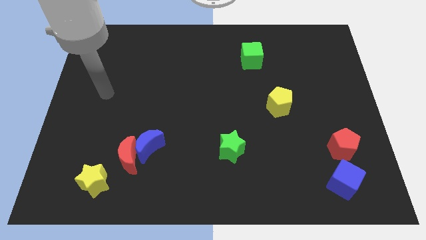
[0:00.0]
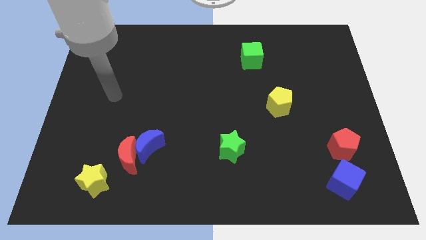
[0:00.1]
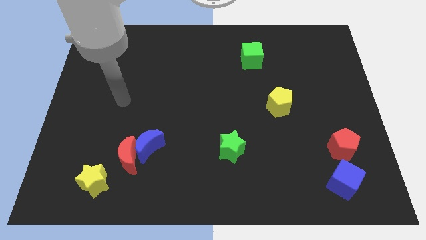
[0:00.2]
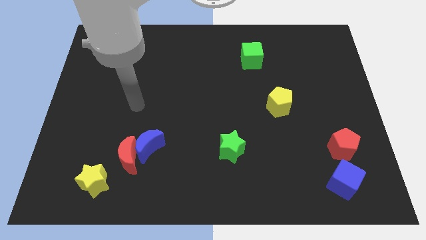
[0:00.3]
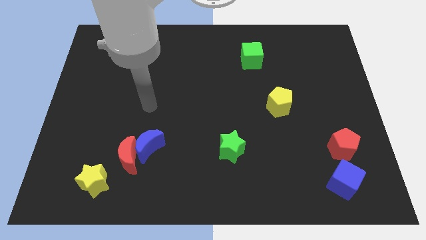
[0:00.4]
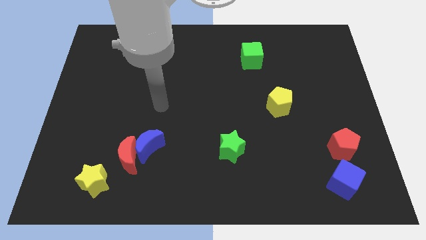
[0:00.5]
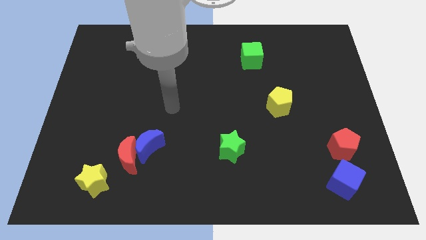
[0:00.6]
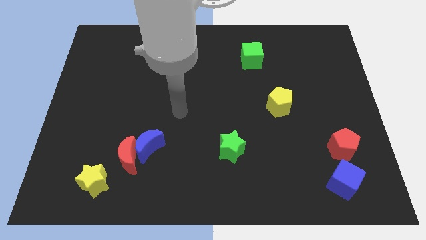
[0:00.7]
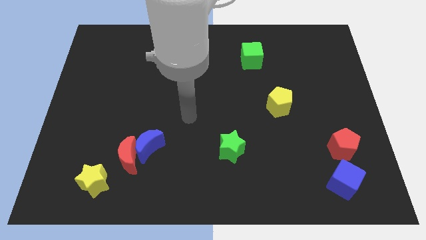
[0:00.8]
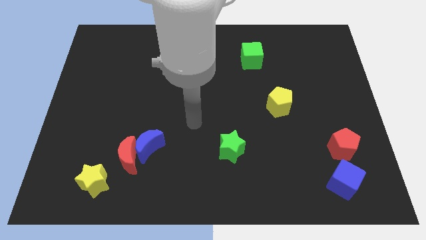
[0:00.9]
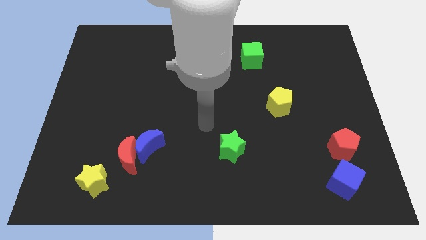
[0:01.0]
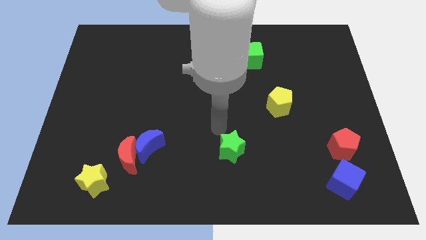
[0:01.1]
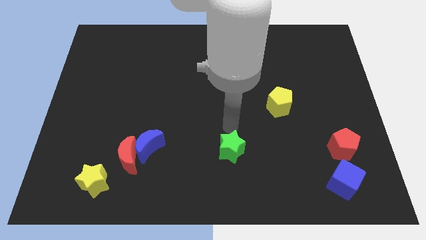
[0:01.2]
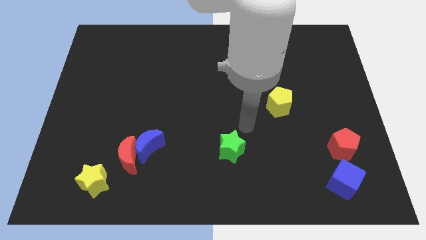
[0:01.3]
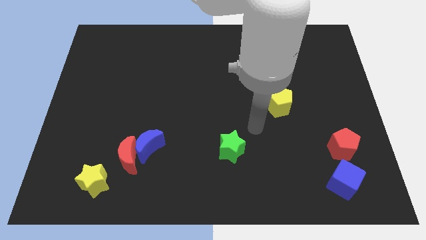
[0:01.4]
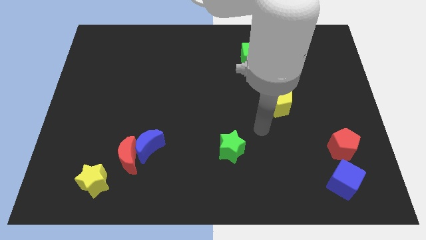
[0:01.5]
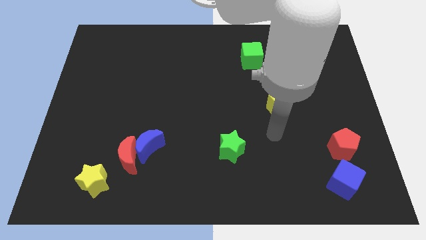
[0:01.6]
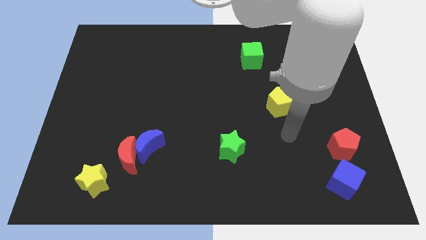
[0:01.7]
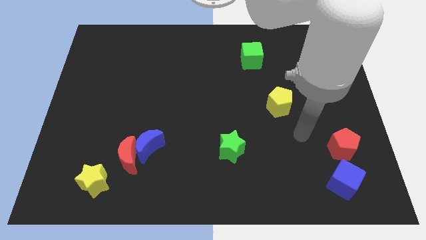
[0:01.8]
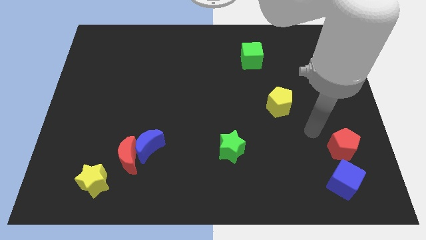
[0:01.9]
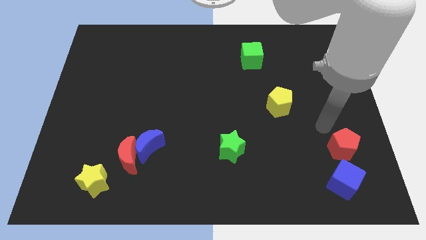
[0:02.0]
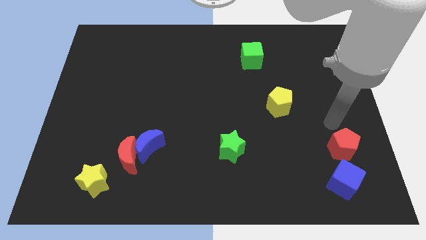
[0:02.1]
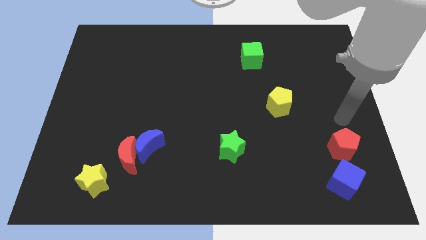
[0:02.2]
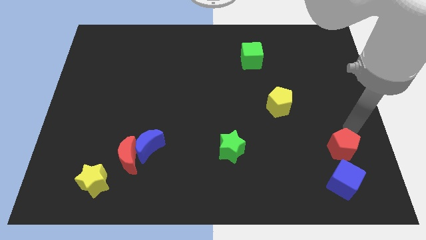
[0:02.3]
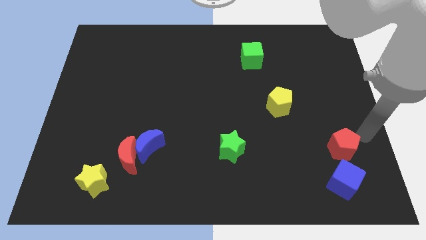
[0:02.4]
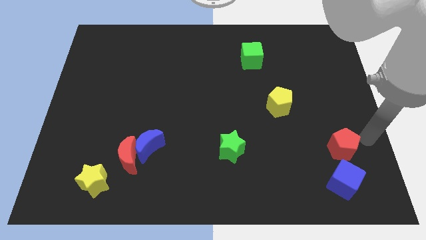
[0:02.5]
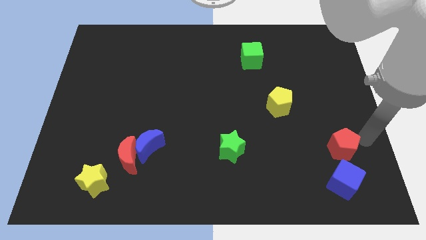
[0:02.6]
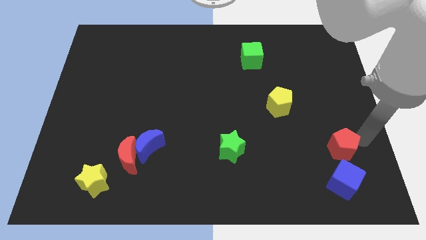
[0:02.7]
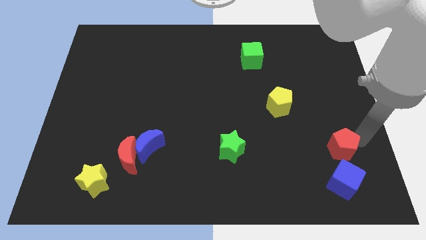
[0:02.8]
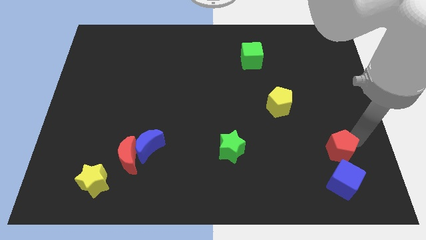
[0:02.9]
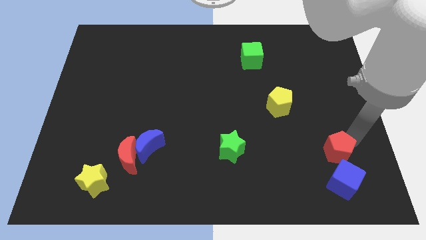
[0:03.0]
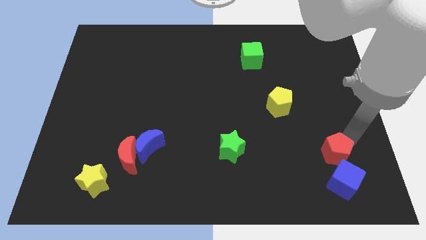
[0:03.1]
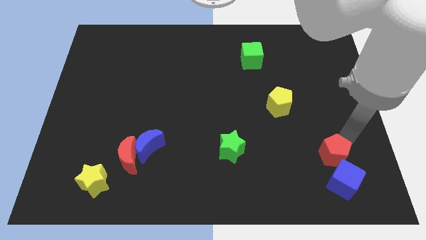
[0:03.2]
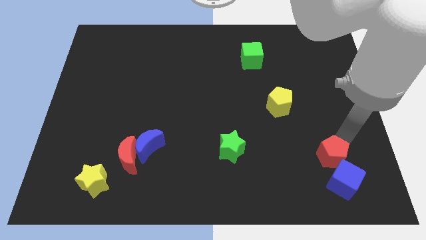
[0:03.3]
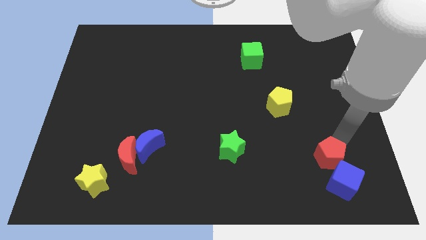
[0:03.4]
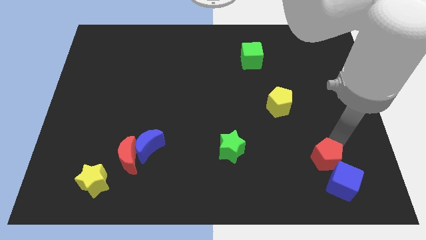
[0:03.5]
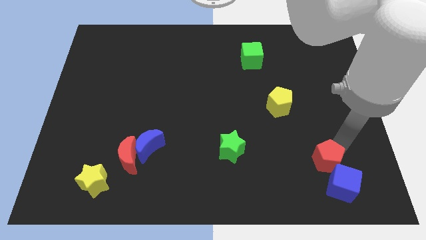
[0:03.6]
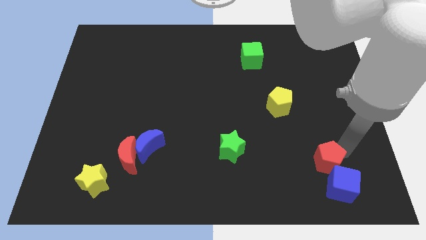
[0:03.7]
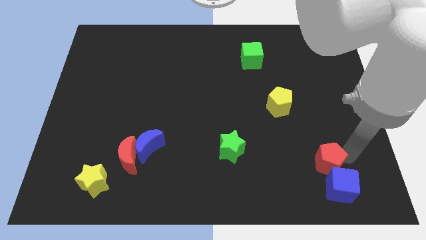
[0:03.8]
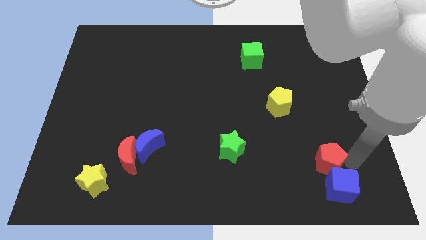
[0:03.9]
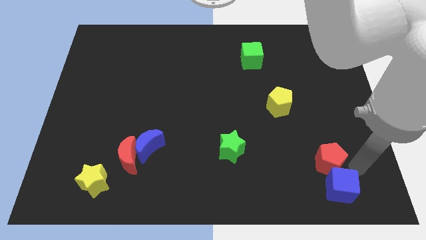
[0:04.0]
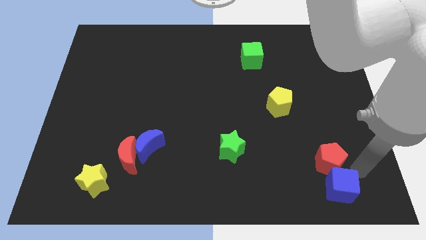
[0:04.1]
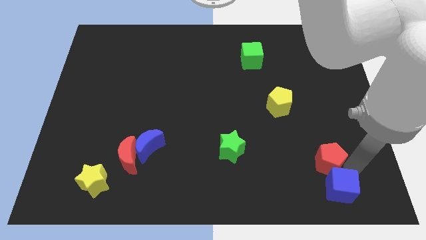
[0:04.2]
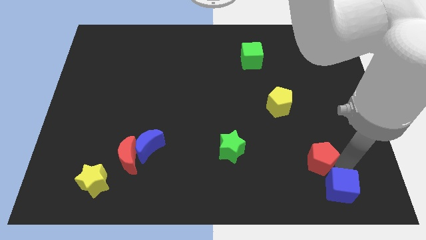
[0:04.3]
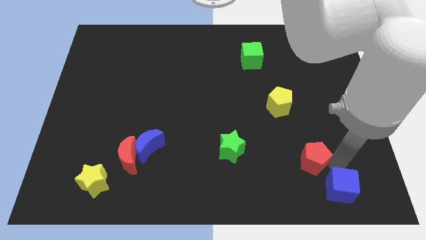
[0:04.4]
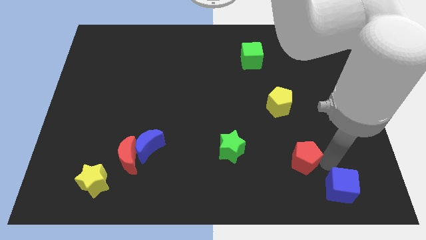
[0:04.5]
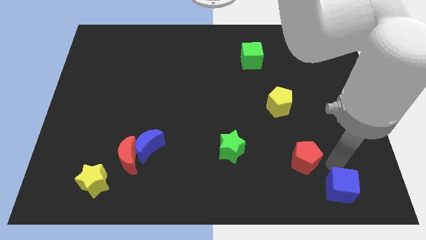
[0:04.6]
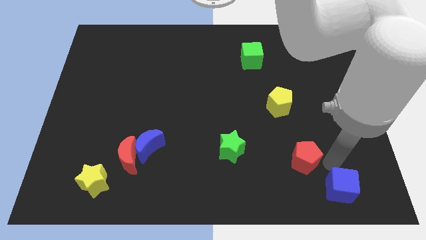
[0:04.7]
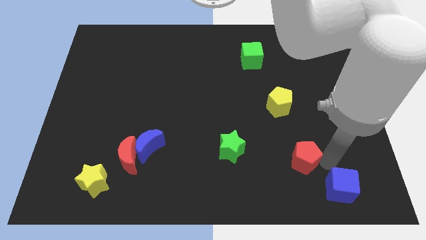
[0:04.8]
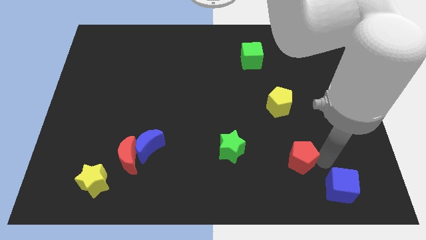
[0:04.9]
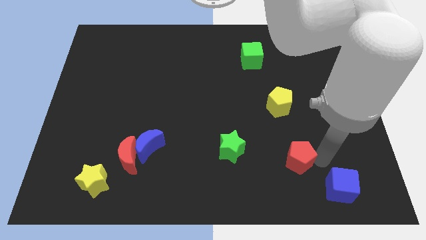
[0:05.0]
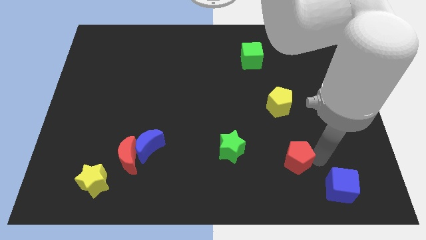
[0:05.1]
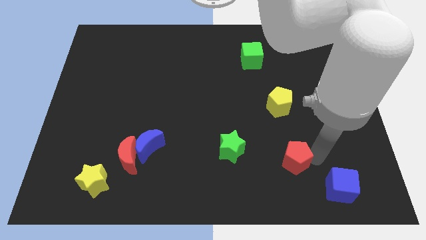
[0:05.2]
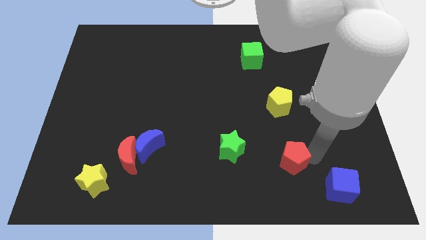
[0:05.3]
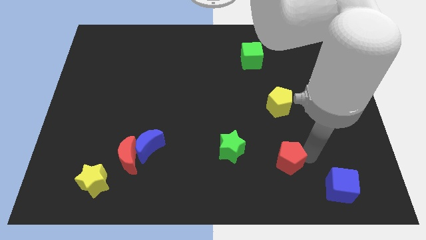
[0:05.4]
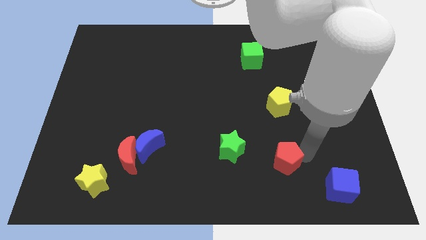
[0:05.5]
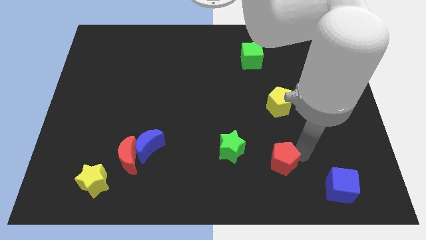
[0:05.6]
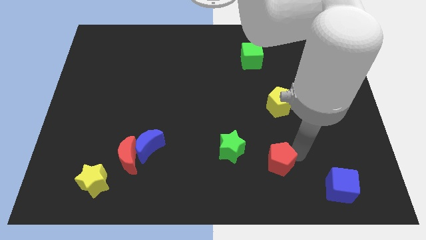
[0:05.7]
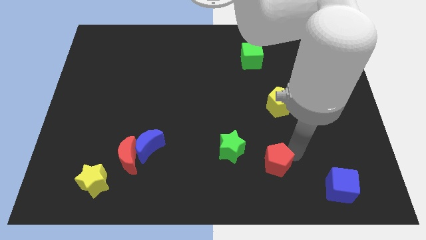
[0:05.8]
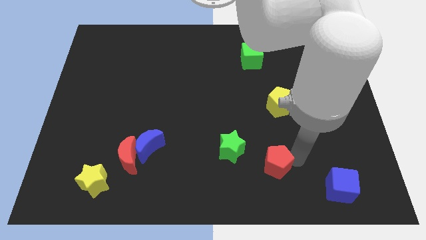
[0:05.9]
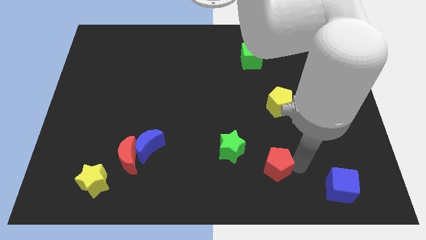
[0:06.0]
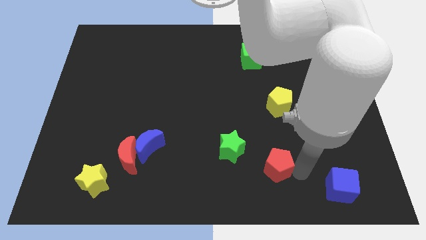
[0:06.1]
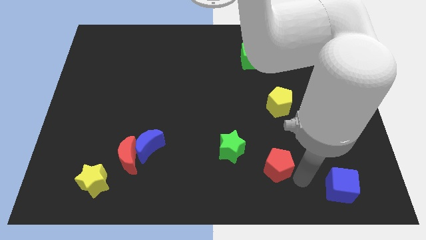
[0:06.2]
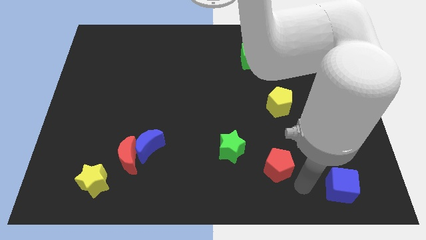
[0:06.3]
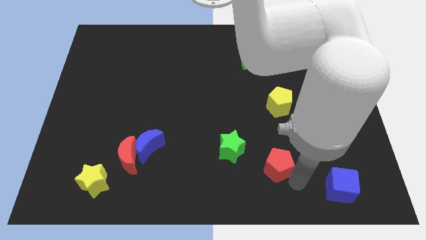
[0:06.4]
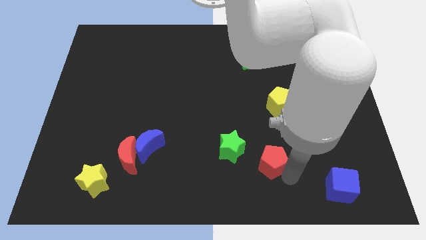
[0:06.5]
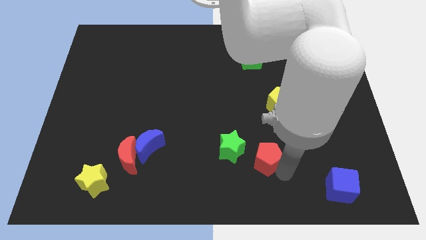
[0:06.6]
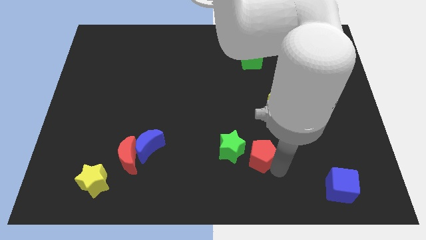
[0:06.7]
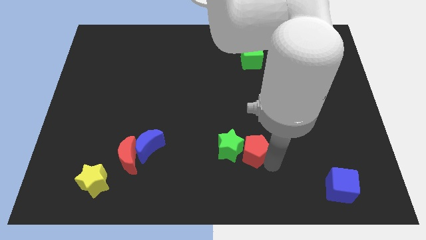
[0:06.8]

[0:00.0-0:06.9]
push the red pentagon next to the green star
